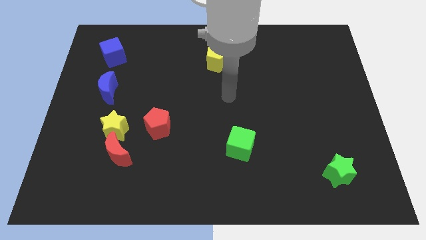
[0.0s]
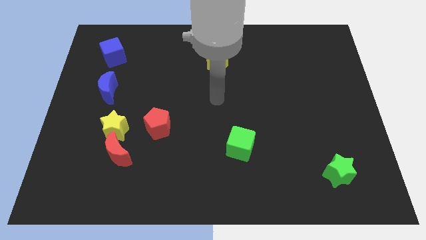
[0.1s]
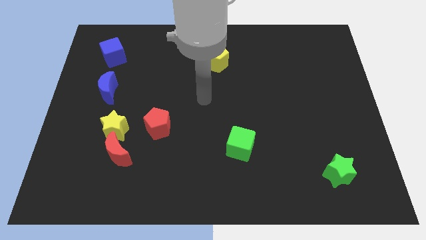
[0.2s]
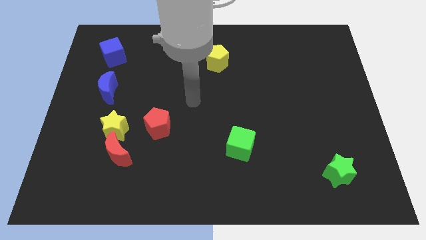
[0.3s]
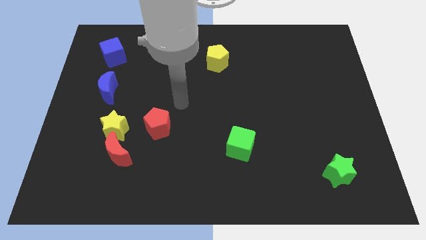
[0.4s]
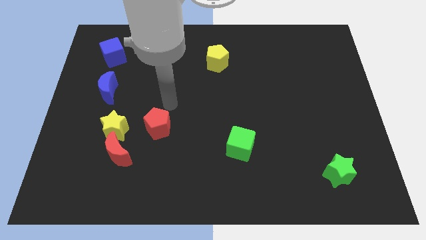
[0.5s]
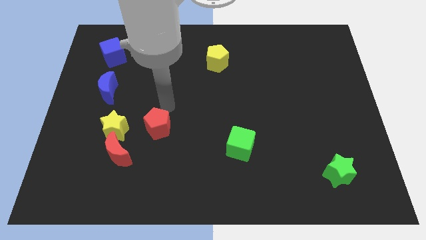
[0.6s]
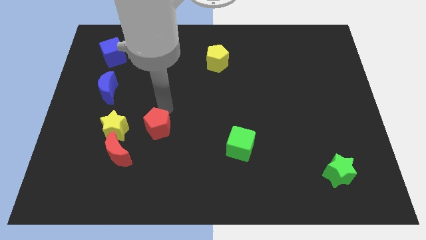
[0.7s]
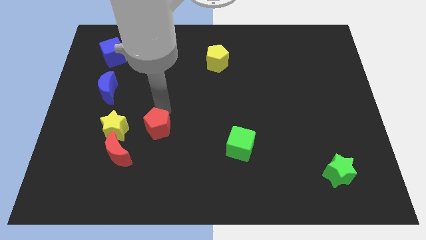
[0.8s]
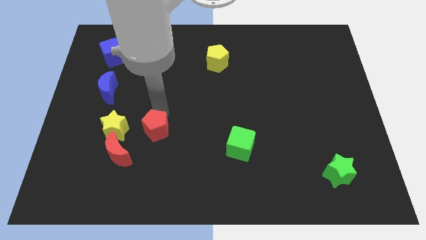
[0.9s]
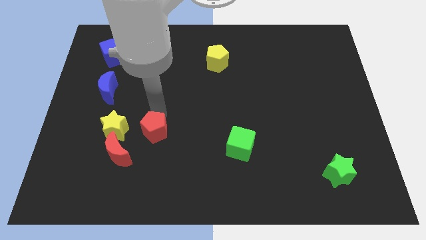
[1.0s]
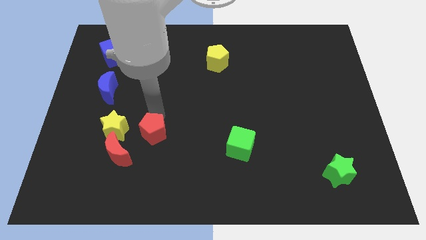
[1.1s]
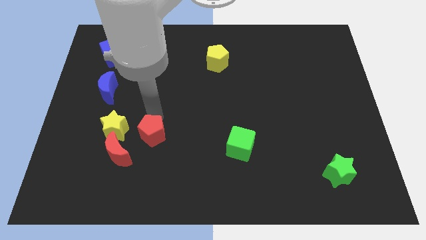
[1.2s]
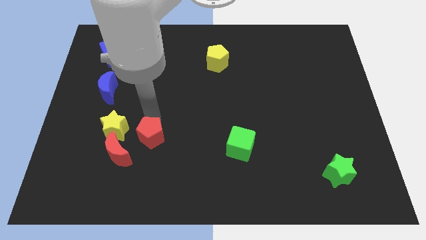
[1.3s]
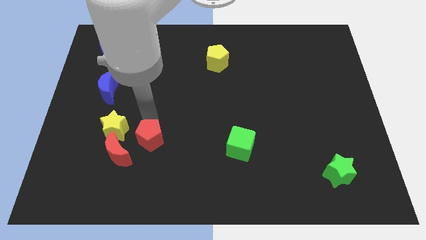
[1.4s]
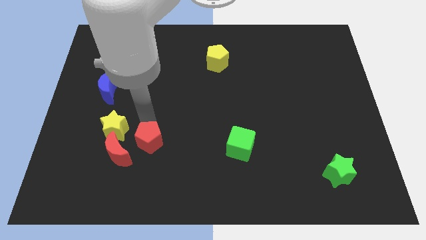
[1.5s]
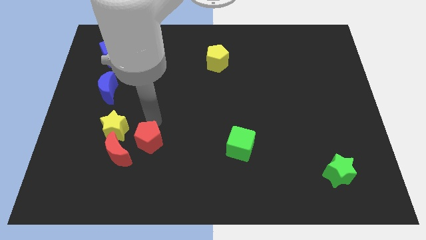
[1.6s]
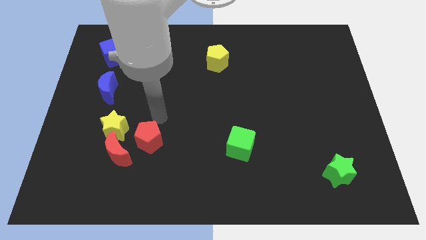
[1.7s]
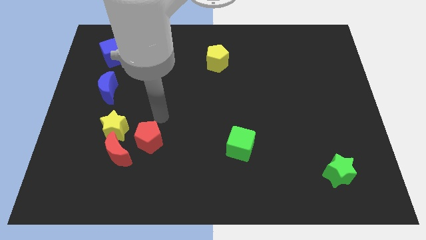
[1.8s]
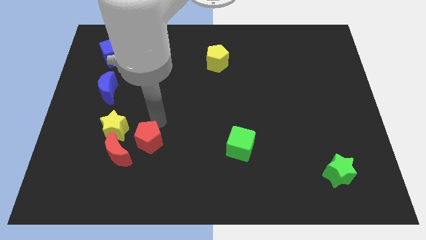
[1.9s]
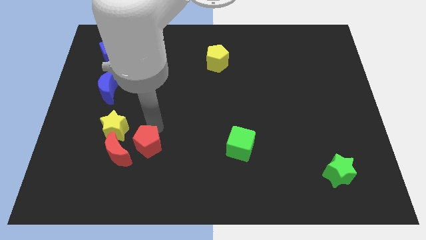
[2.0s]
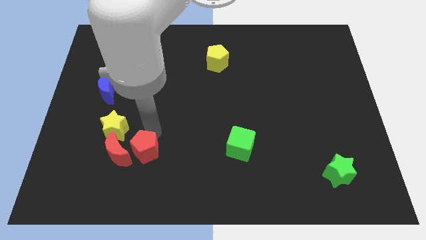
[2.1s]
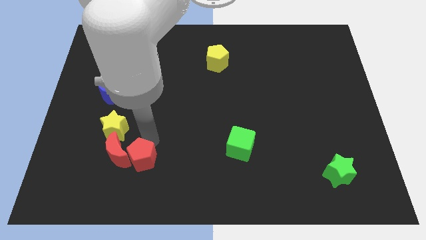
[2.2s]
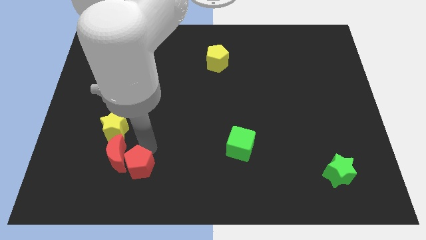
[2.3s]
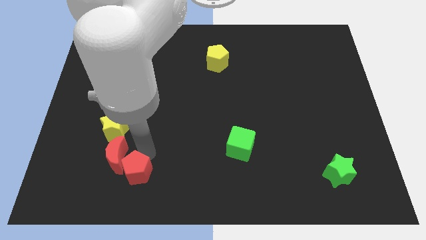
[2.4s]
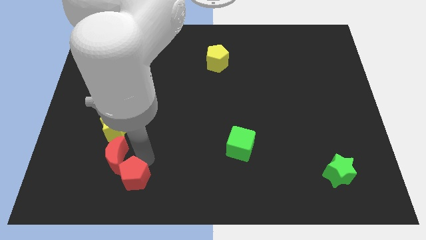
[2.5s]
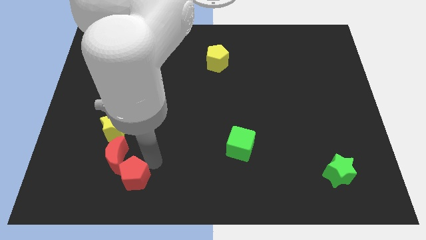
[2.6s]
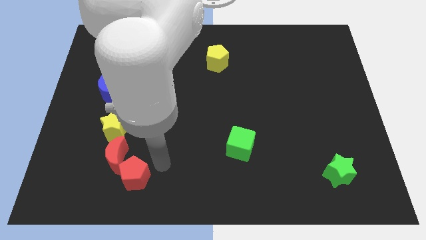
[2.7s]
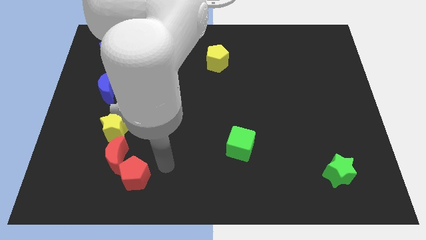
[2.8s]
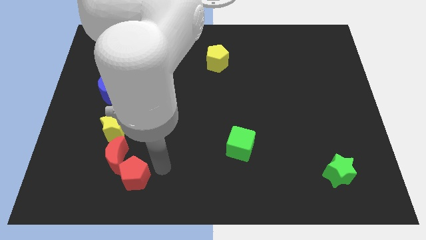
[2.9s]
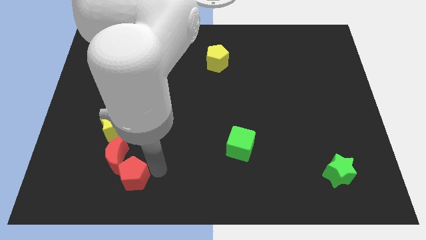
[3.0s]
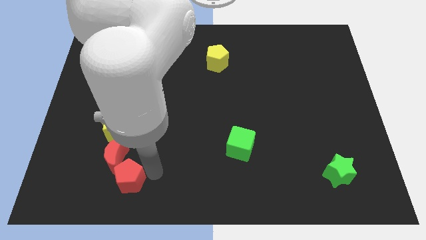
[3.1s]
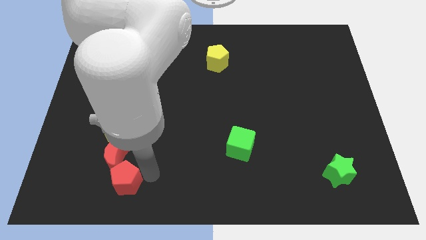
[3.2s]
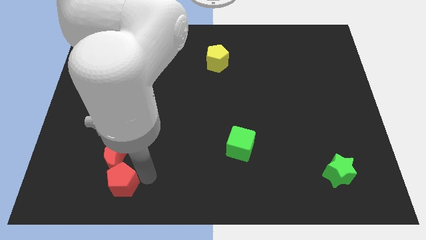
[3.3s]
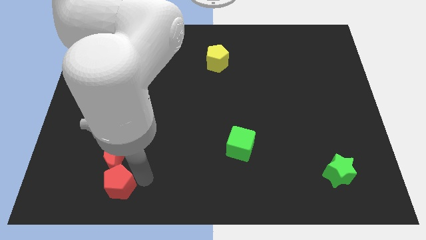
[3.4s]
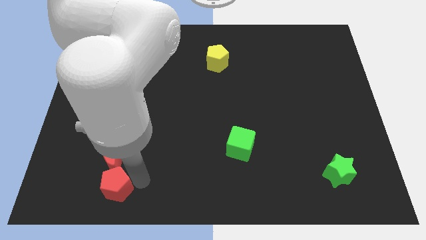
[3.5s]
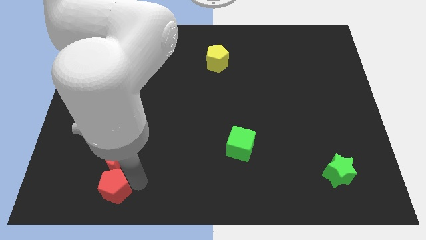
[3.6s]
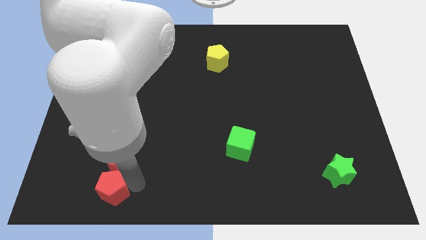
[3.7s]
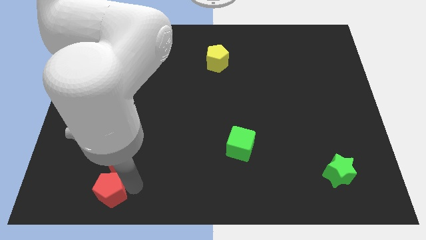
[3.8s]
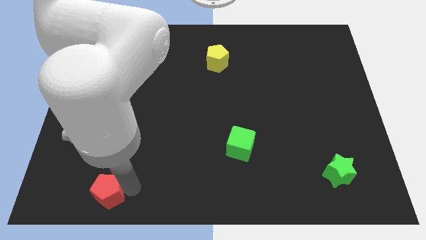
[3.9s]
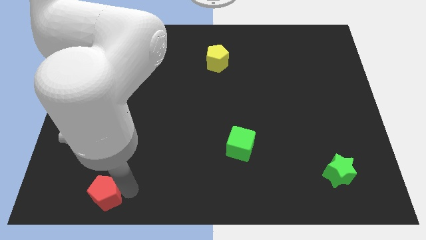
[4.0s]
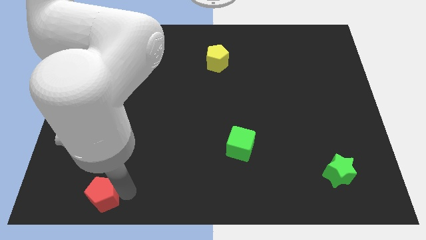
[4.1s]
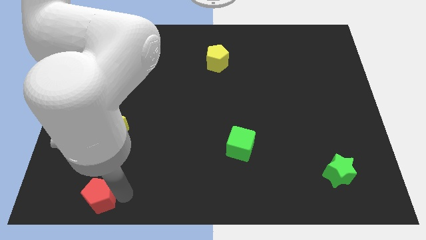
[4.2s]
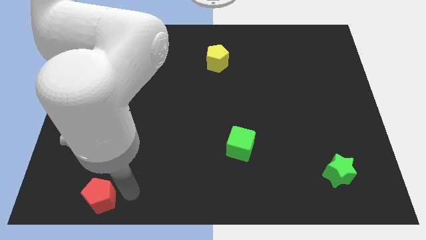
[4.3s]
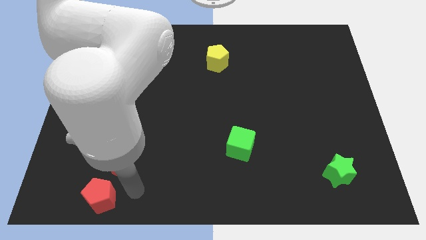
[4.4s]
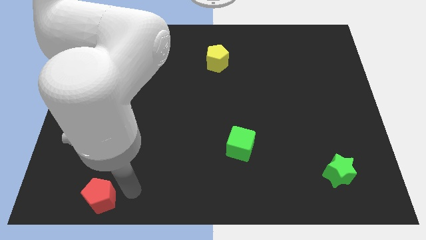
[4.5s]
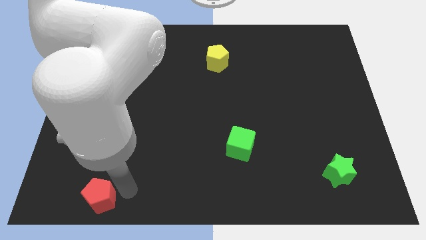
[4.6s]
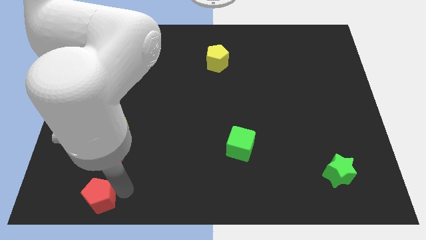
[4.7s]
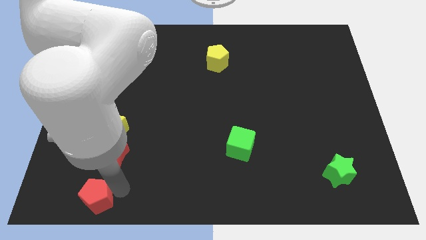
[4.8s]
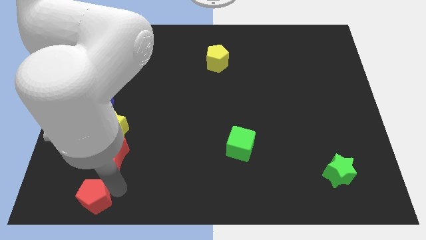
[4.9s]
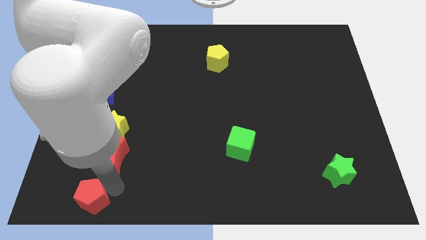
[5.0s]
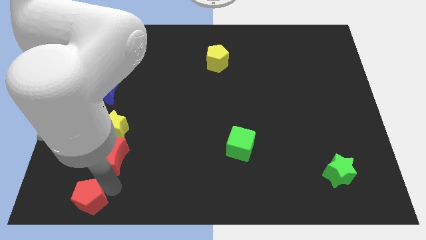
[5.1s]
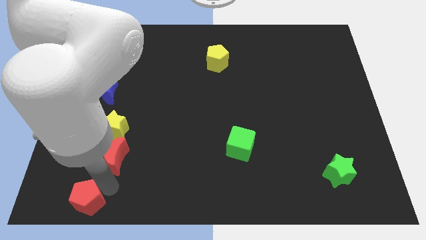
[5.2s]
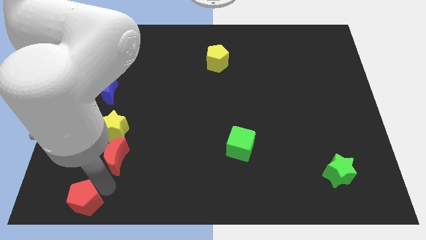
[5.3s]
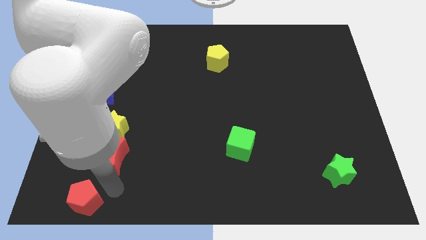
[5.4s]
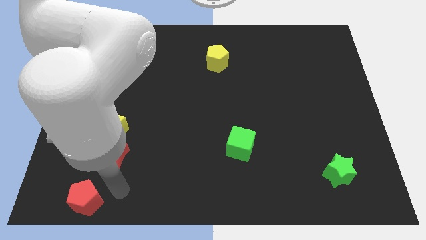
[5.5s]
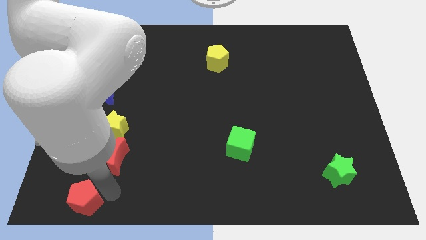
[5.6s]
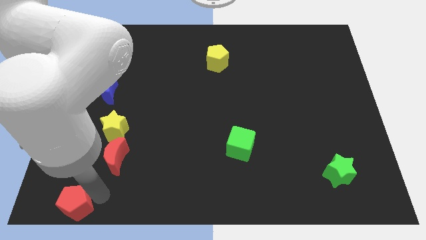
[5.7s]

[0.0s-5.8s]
slide the red pentagon to the bottom left

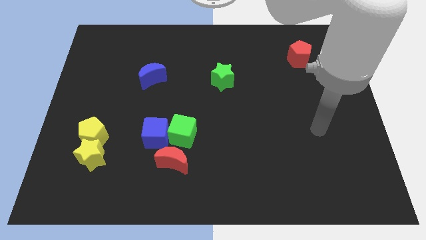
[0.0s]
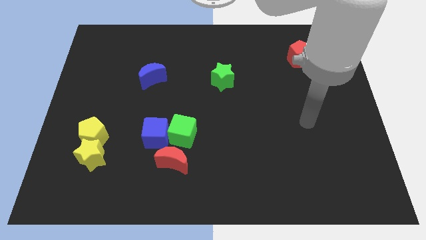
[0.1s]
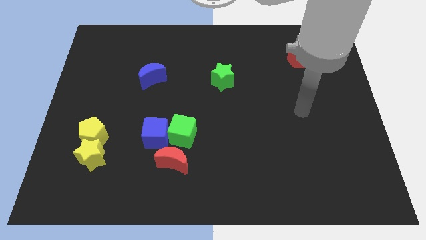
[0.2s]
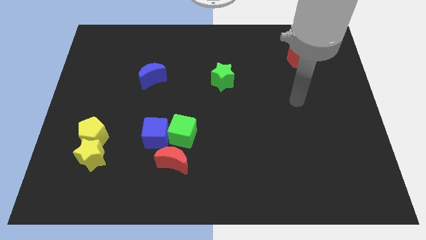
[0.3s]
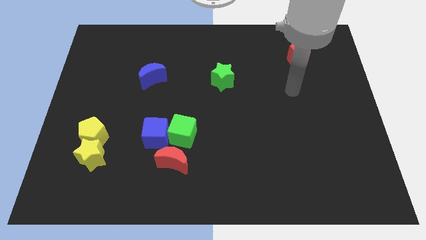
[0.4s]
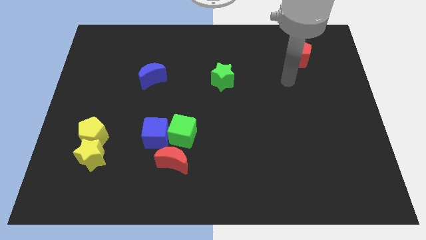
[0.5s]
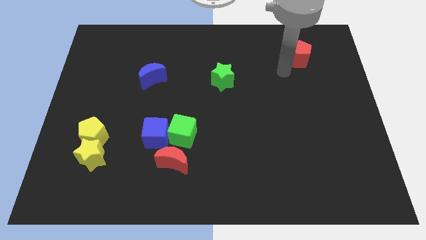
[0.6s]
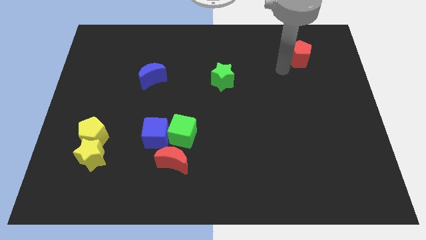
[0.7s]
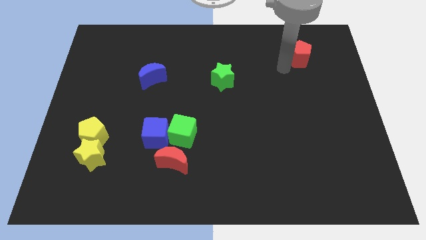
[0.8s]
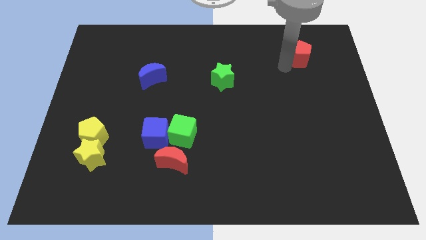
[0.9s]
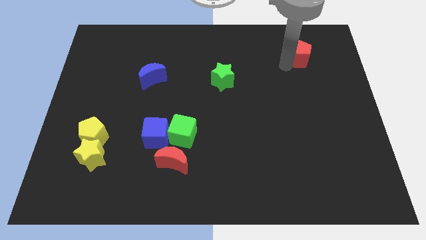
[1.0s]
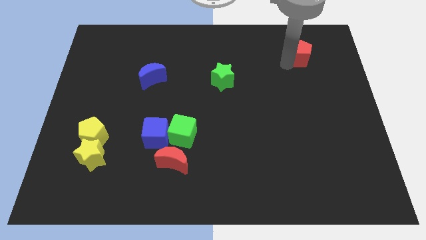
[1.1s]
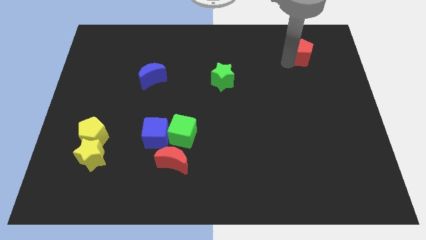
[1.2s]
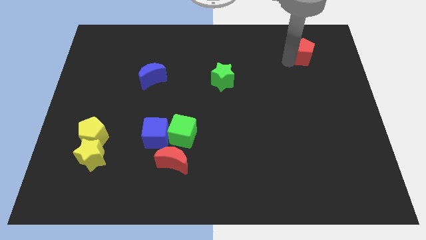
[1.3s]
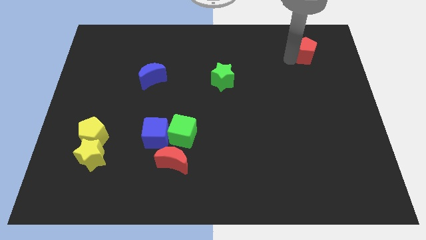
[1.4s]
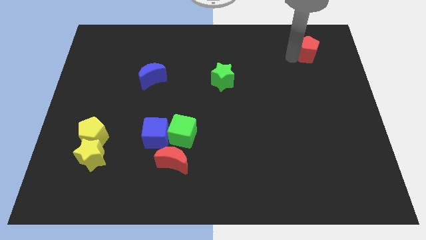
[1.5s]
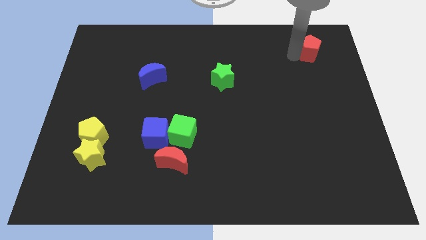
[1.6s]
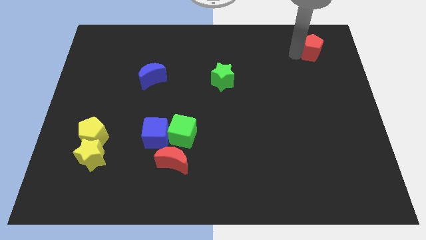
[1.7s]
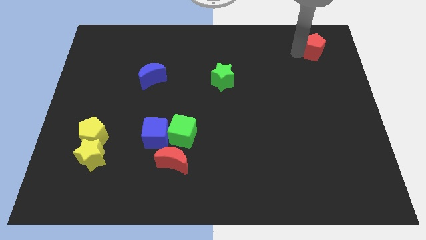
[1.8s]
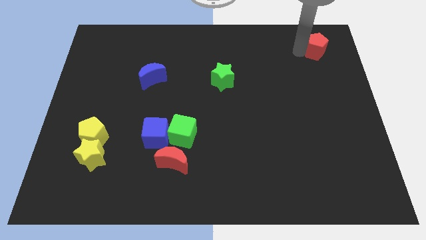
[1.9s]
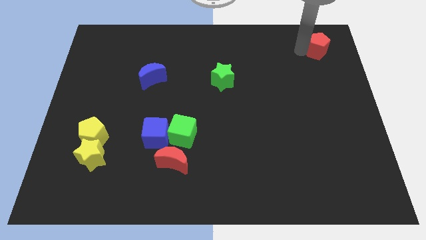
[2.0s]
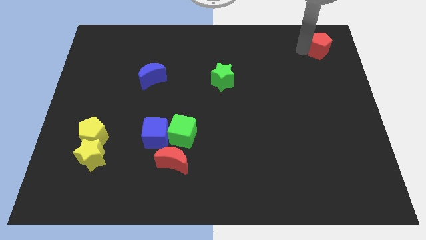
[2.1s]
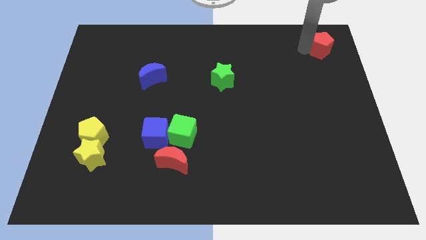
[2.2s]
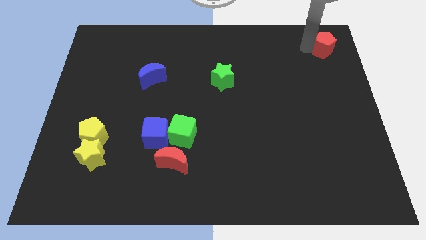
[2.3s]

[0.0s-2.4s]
put the red pentagon to the upper right corner
